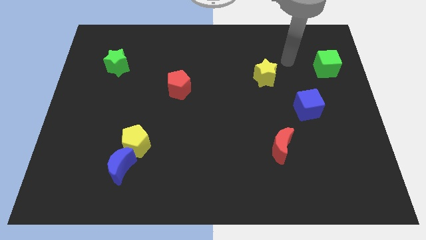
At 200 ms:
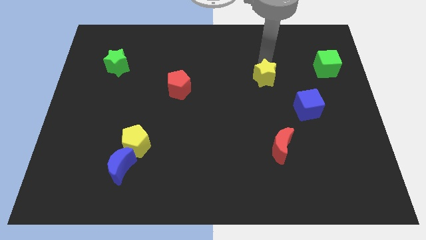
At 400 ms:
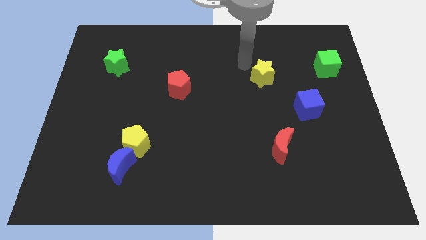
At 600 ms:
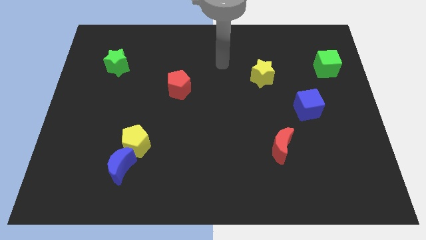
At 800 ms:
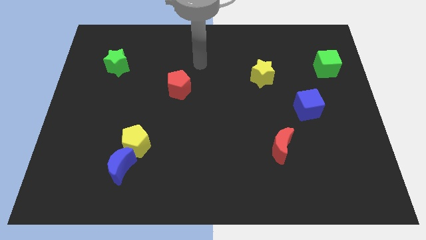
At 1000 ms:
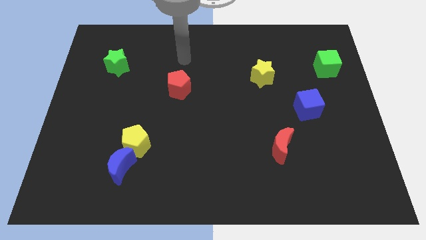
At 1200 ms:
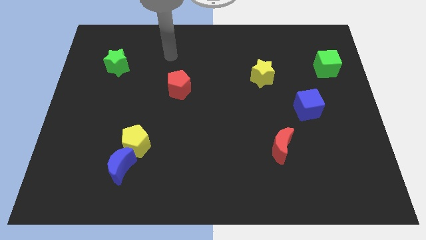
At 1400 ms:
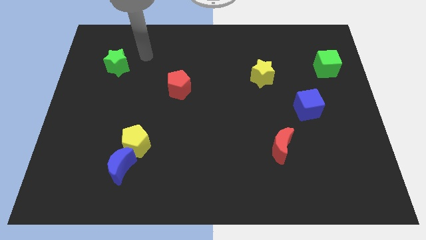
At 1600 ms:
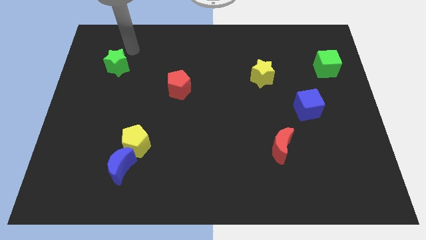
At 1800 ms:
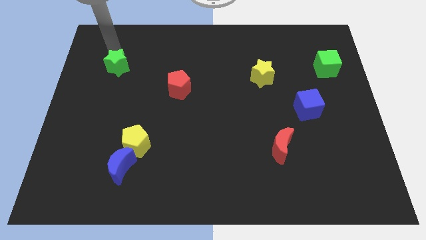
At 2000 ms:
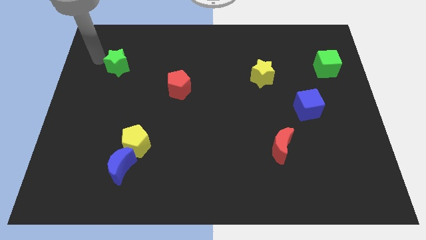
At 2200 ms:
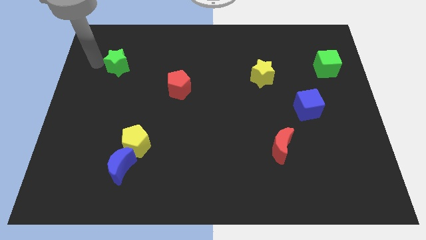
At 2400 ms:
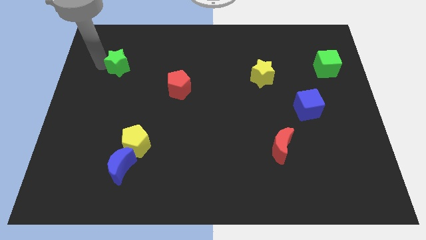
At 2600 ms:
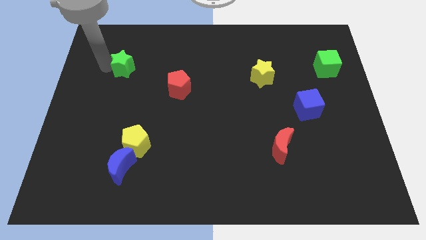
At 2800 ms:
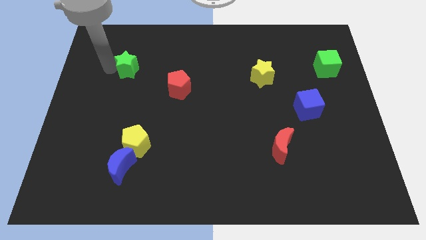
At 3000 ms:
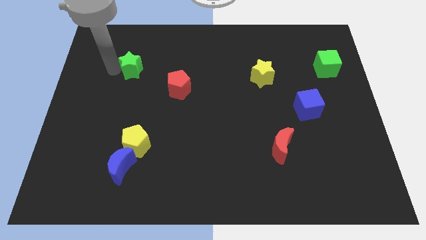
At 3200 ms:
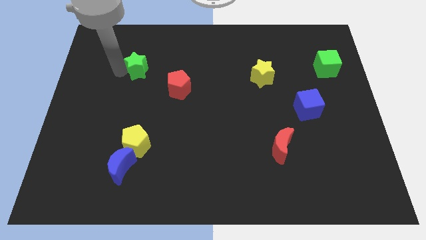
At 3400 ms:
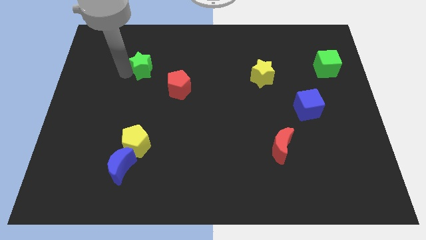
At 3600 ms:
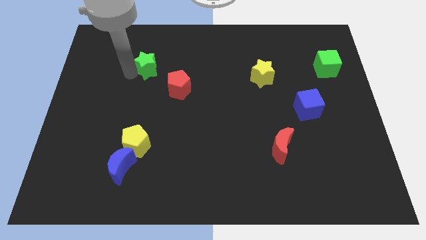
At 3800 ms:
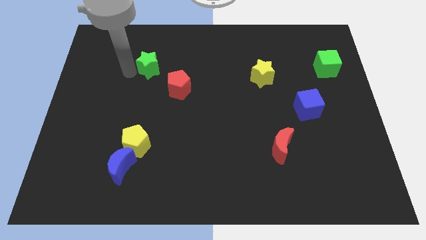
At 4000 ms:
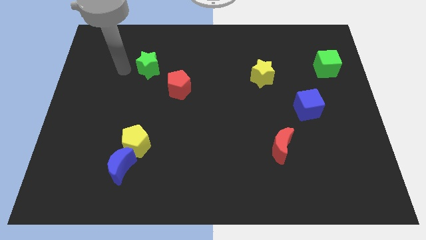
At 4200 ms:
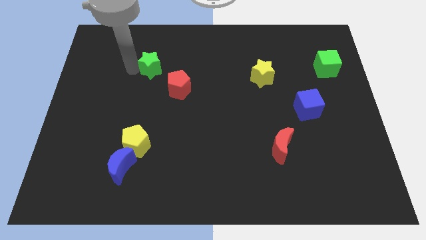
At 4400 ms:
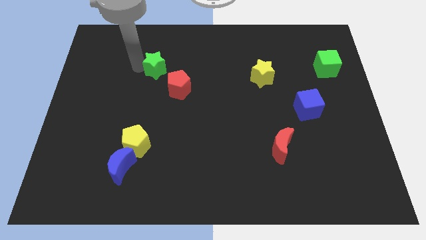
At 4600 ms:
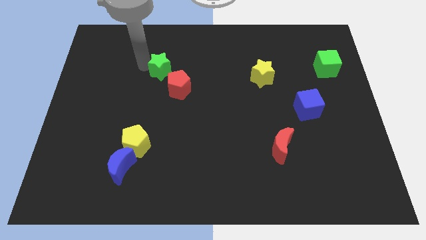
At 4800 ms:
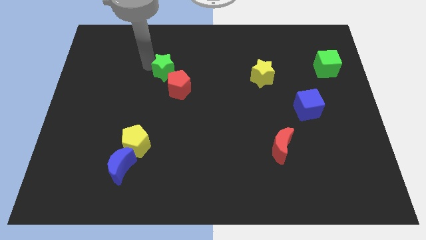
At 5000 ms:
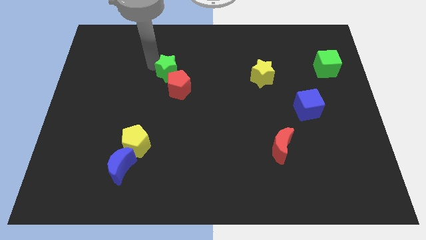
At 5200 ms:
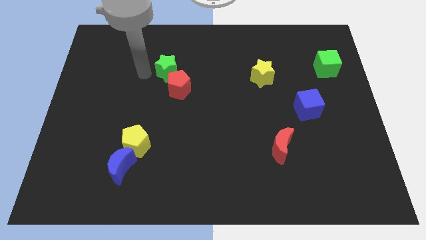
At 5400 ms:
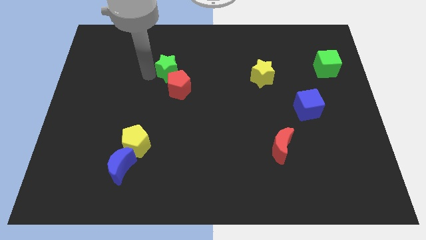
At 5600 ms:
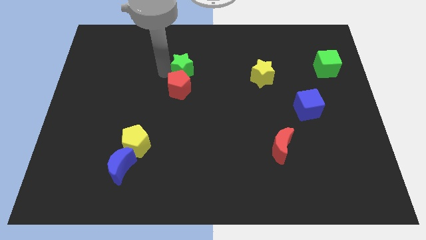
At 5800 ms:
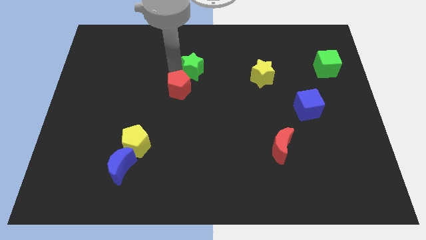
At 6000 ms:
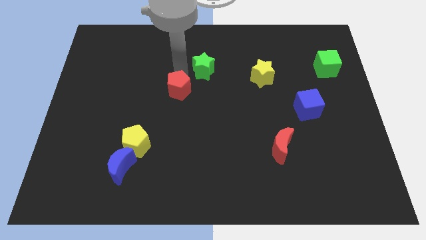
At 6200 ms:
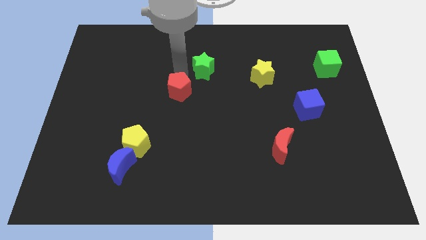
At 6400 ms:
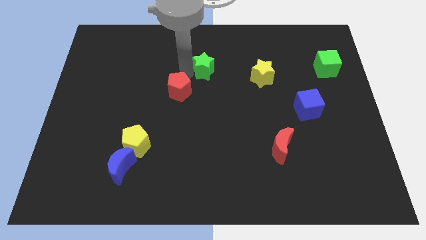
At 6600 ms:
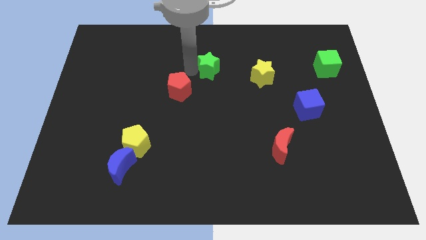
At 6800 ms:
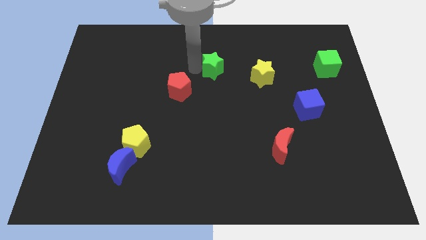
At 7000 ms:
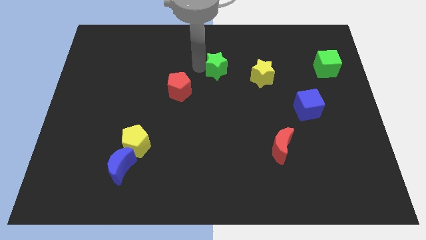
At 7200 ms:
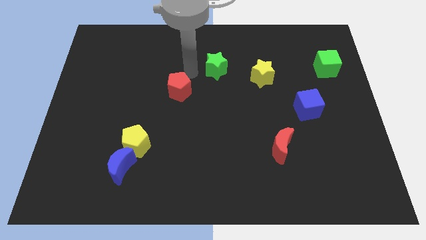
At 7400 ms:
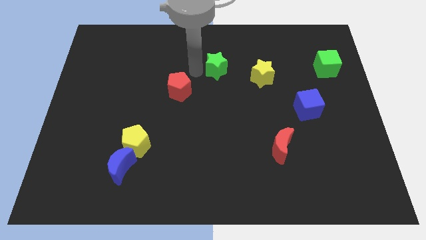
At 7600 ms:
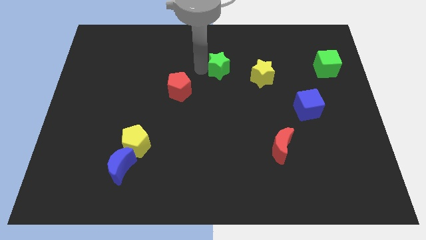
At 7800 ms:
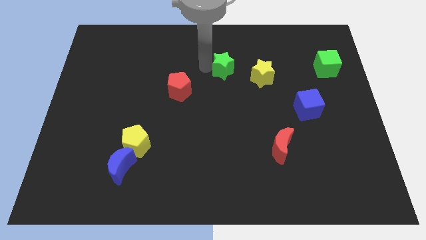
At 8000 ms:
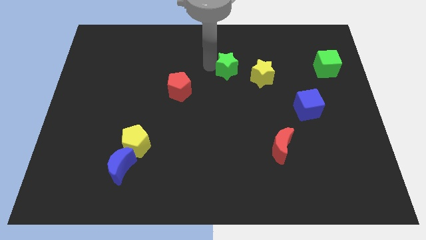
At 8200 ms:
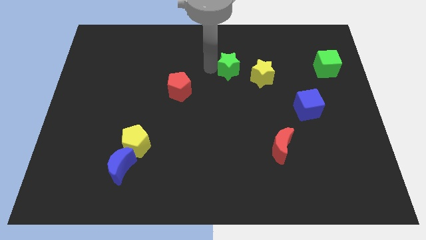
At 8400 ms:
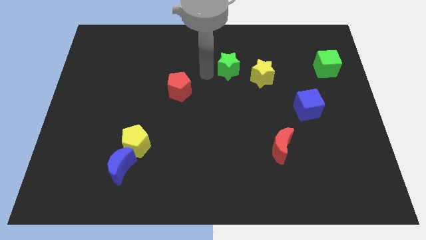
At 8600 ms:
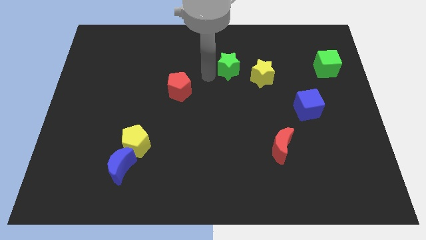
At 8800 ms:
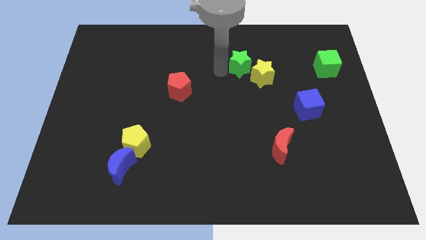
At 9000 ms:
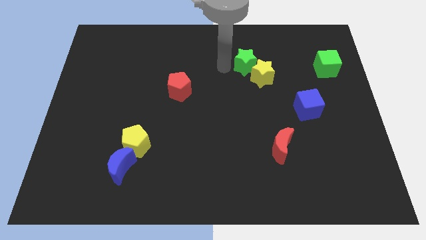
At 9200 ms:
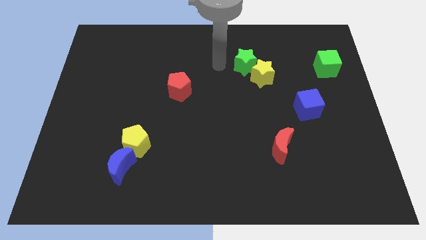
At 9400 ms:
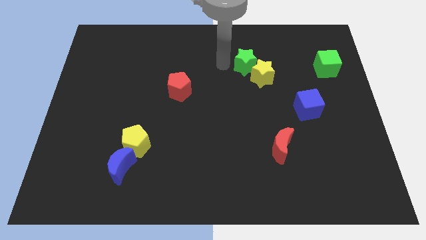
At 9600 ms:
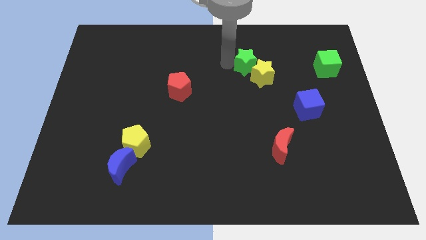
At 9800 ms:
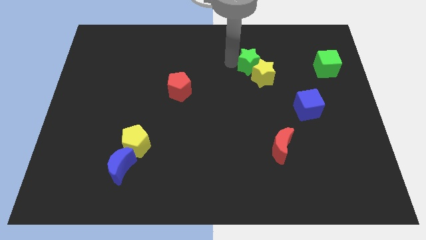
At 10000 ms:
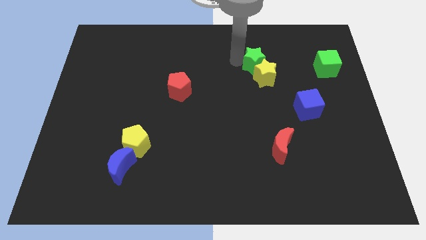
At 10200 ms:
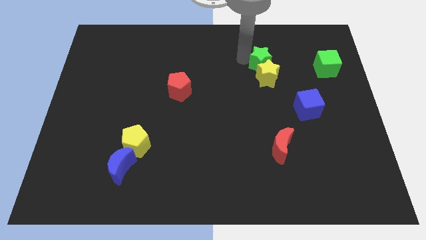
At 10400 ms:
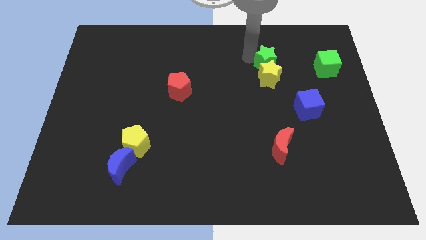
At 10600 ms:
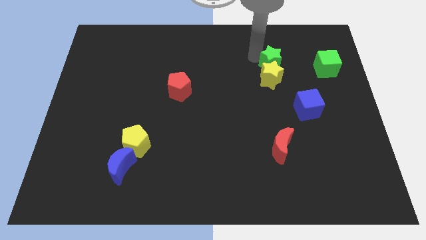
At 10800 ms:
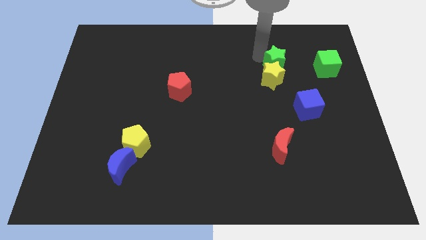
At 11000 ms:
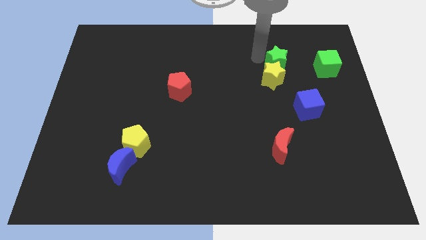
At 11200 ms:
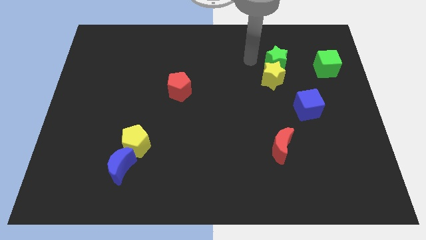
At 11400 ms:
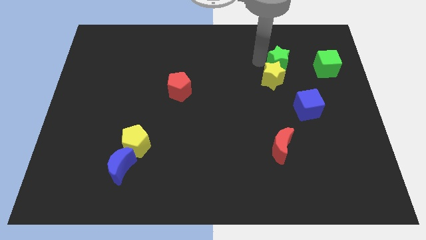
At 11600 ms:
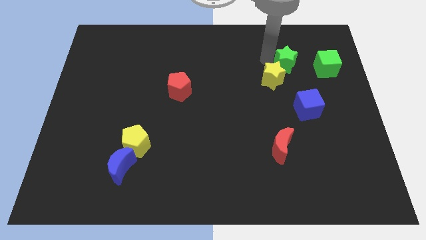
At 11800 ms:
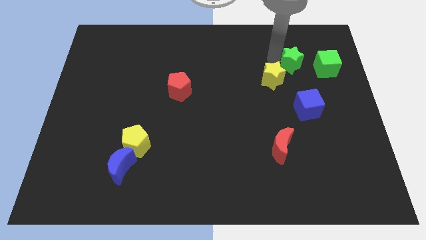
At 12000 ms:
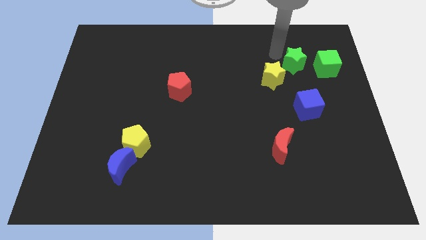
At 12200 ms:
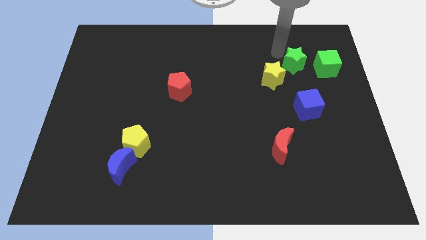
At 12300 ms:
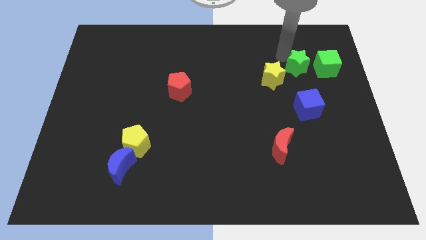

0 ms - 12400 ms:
move the green star to the right side of the yellow star

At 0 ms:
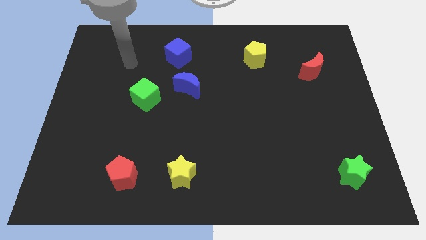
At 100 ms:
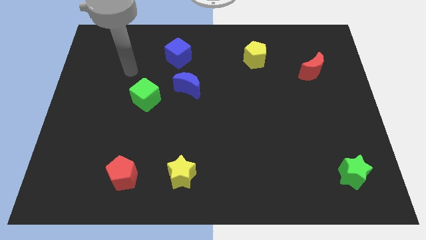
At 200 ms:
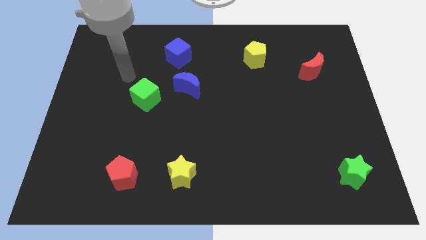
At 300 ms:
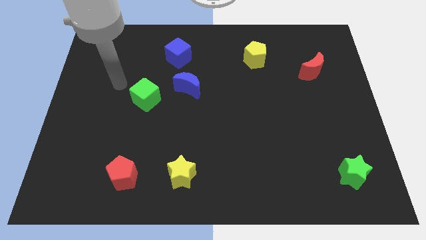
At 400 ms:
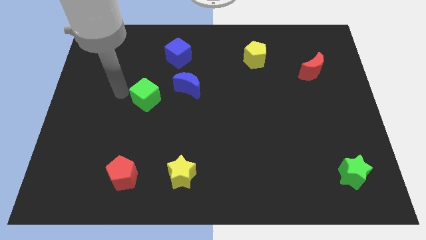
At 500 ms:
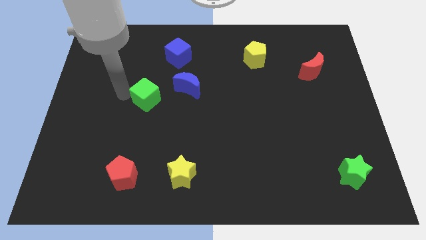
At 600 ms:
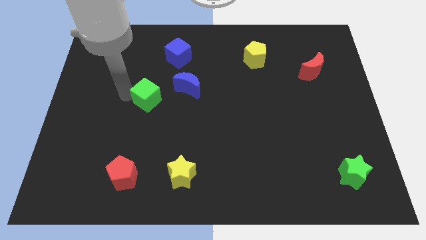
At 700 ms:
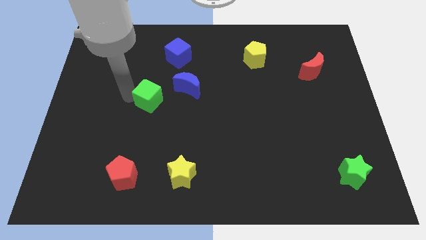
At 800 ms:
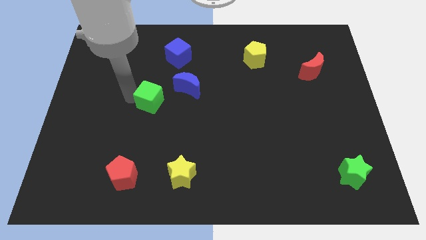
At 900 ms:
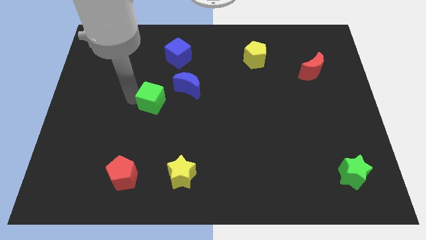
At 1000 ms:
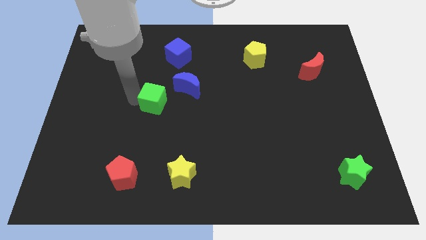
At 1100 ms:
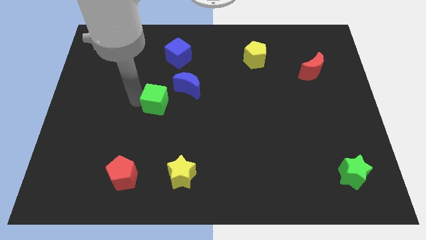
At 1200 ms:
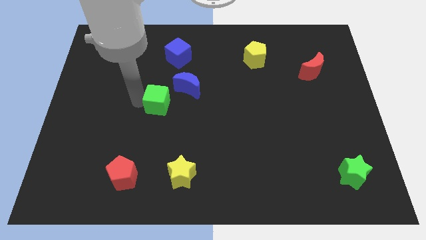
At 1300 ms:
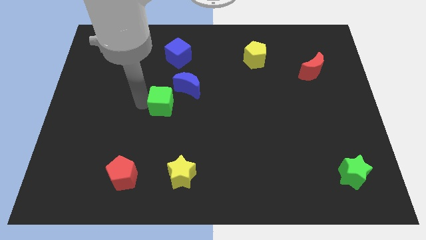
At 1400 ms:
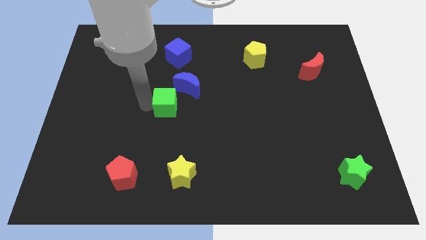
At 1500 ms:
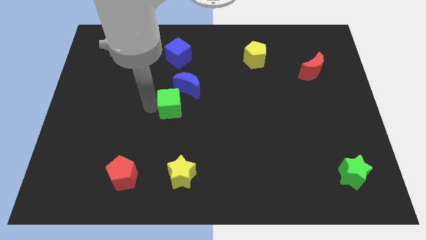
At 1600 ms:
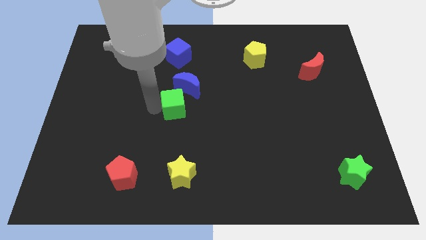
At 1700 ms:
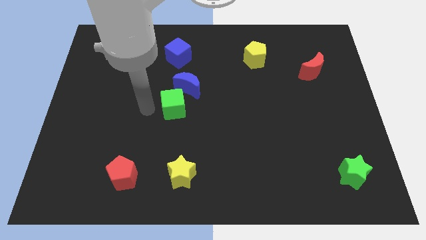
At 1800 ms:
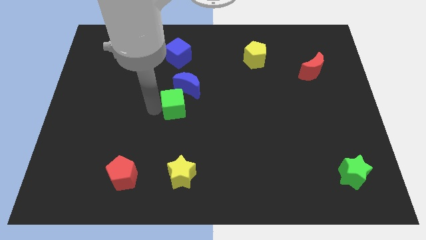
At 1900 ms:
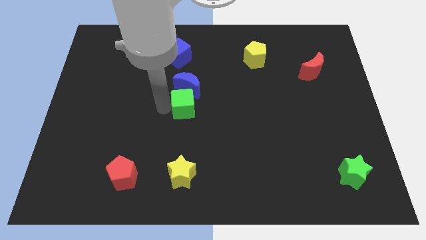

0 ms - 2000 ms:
push the green cube to the bottom right of the blue moon
